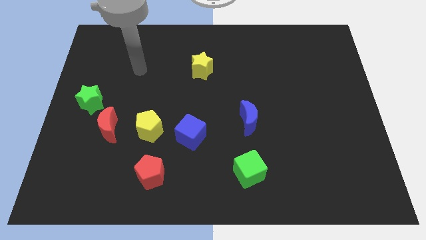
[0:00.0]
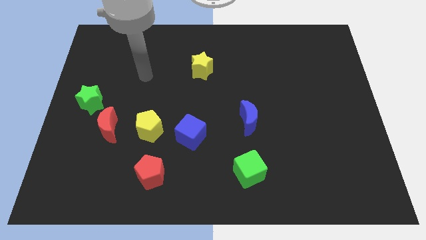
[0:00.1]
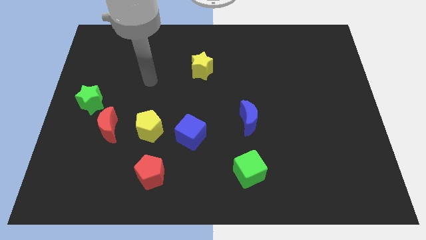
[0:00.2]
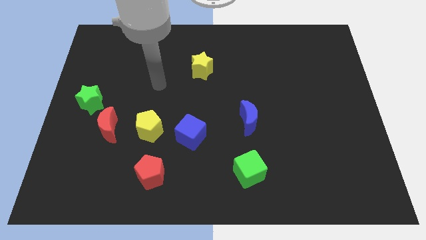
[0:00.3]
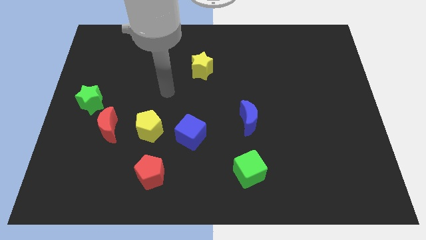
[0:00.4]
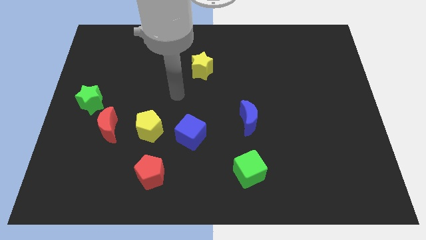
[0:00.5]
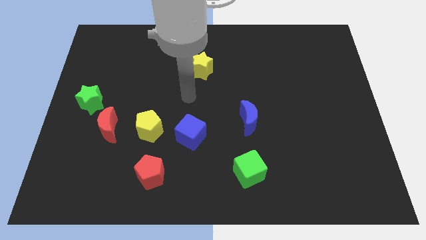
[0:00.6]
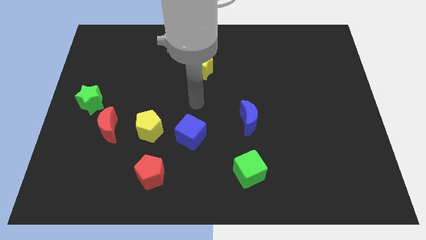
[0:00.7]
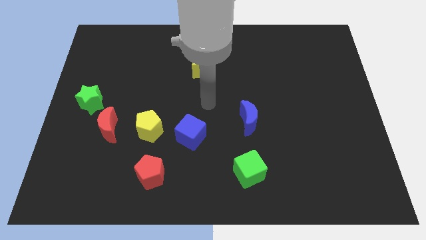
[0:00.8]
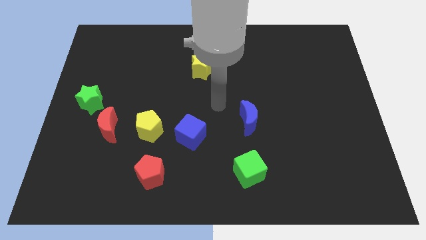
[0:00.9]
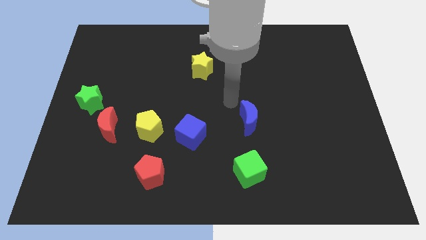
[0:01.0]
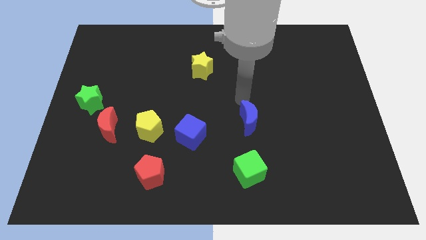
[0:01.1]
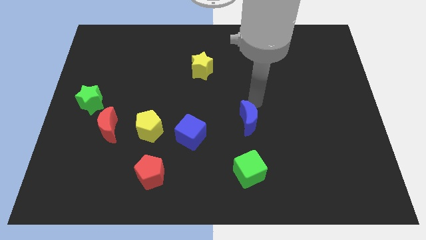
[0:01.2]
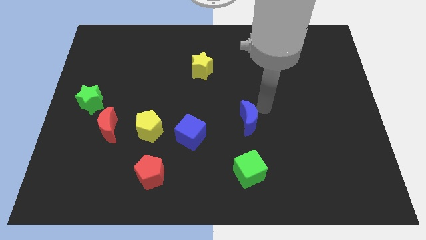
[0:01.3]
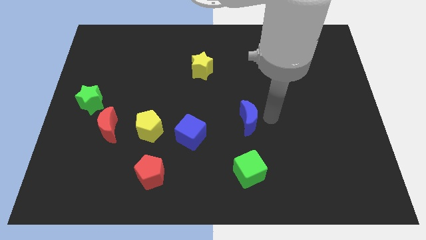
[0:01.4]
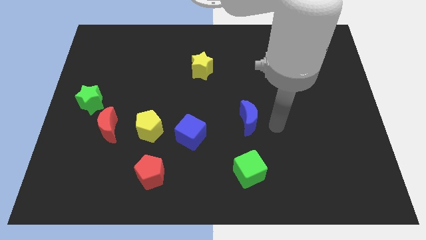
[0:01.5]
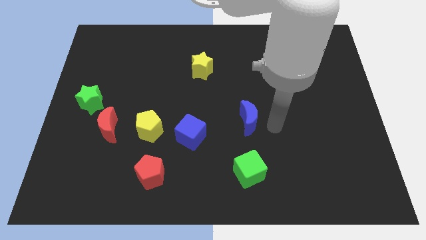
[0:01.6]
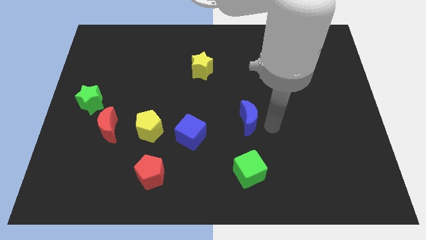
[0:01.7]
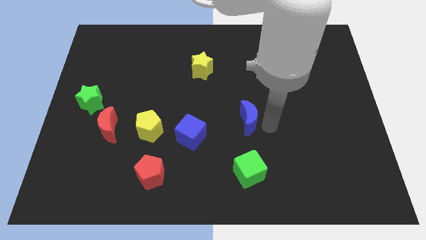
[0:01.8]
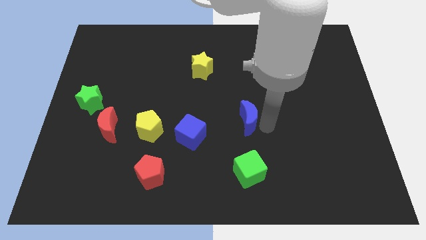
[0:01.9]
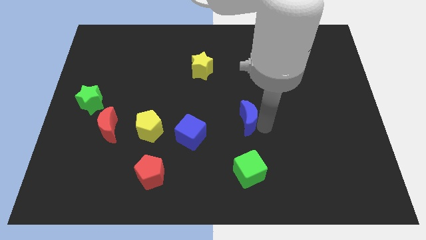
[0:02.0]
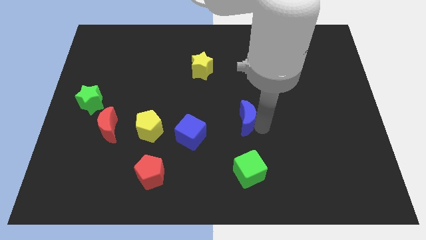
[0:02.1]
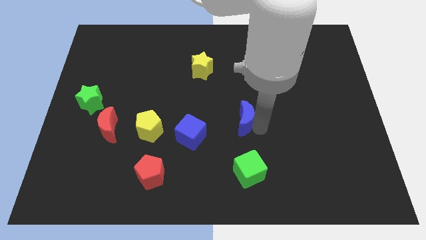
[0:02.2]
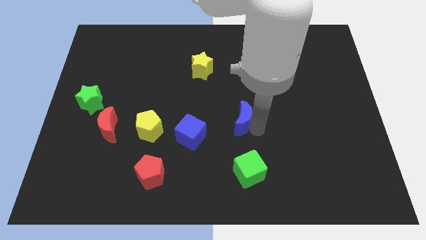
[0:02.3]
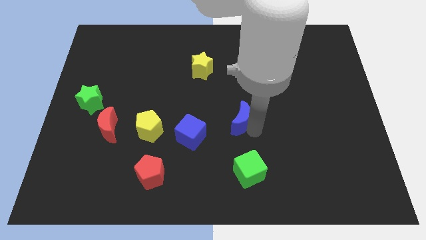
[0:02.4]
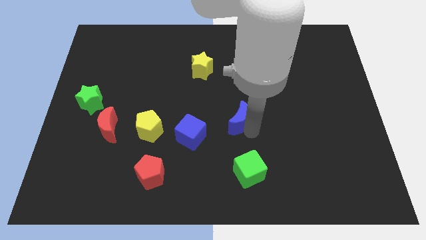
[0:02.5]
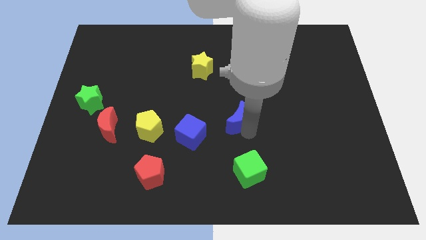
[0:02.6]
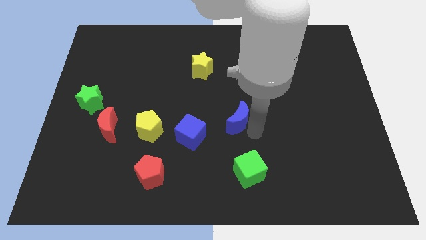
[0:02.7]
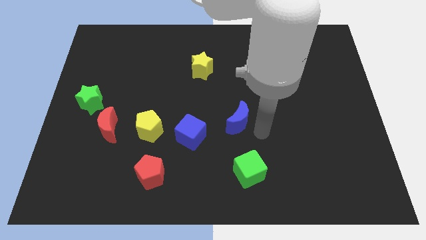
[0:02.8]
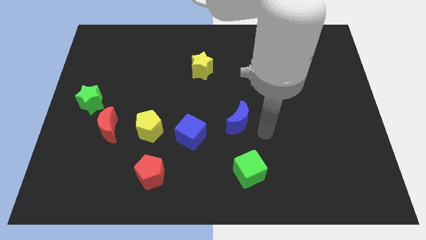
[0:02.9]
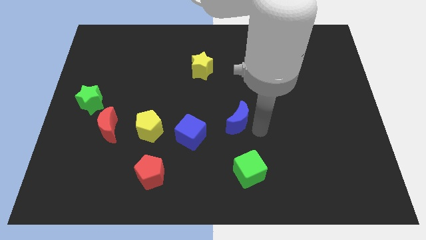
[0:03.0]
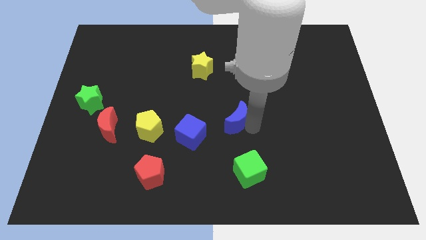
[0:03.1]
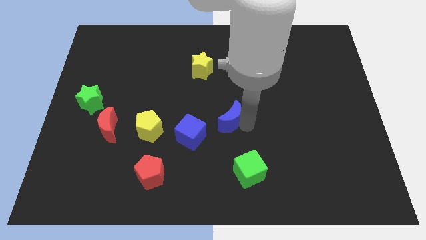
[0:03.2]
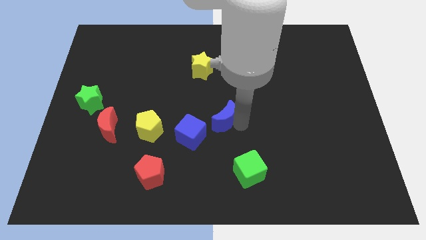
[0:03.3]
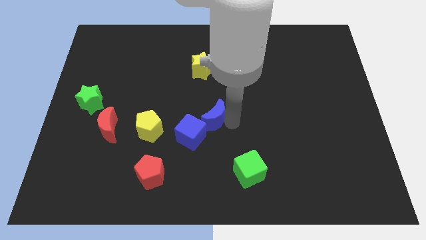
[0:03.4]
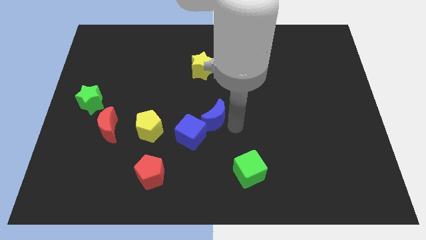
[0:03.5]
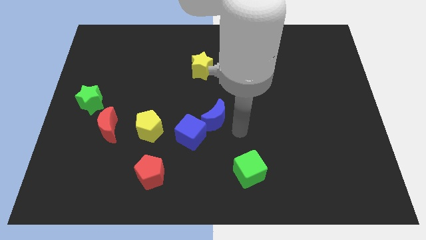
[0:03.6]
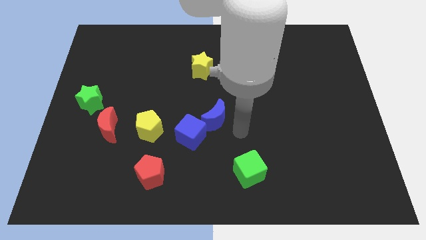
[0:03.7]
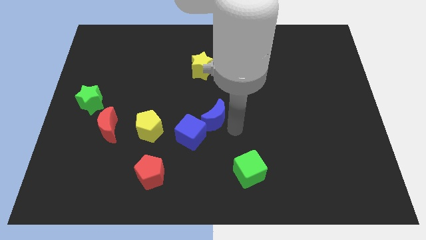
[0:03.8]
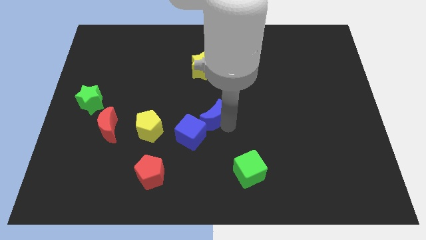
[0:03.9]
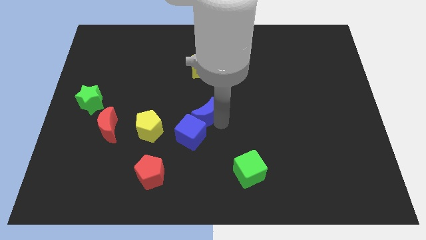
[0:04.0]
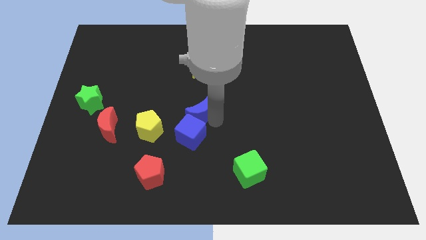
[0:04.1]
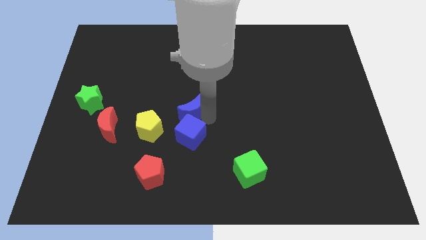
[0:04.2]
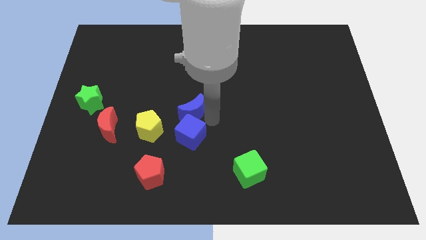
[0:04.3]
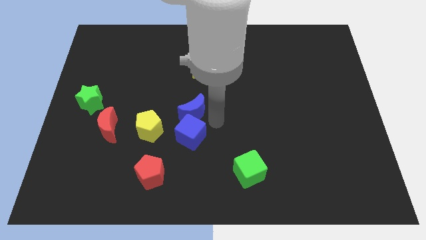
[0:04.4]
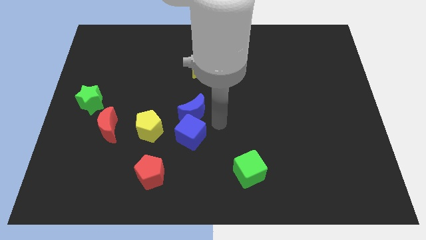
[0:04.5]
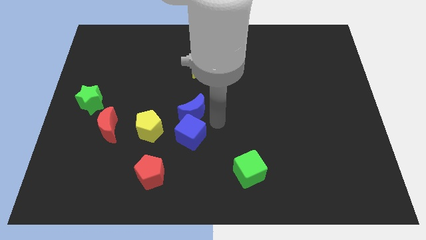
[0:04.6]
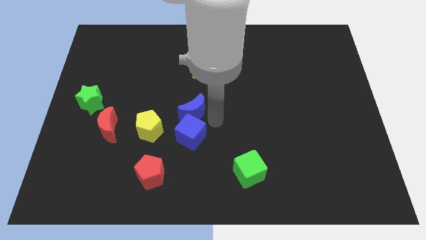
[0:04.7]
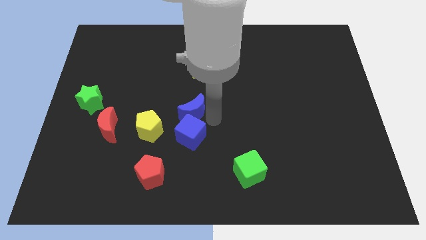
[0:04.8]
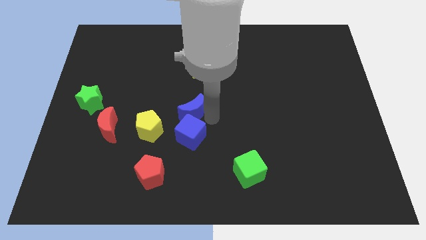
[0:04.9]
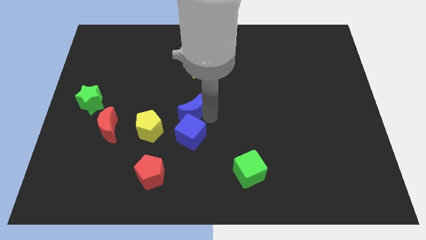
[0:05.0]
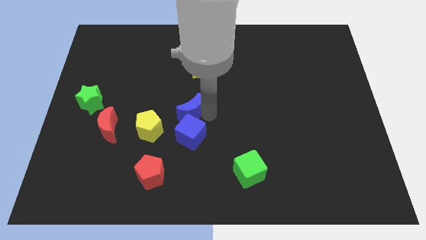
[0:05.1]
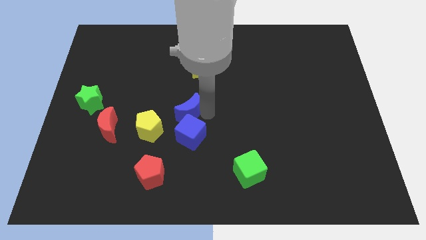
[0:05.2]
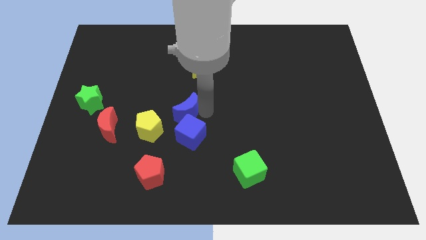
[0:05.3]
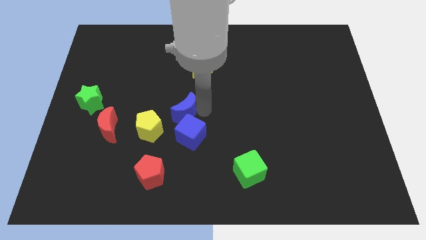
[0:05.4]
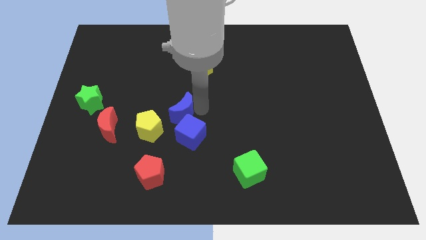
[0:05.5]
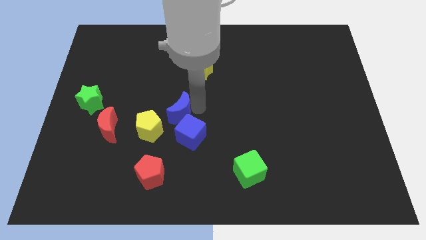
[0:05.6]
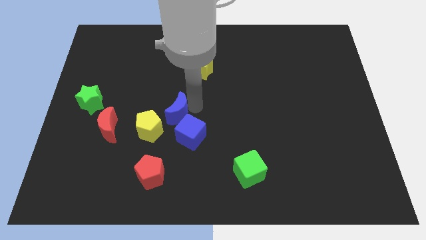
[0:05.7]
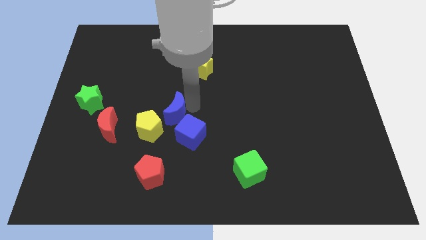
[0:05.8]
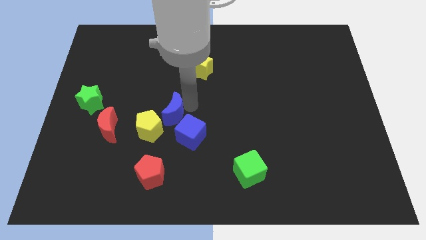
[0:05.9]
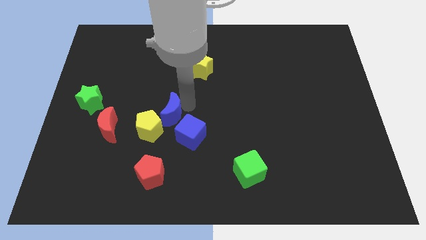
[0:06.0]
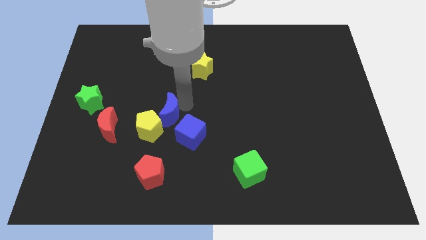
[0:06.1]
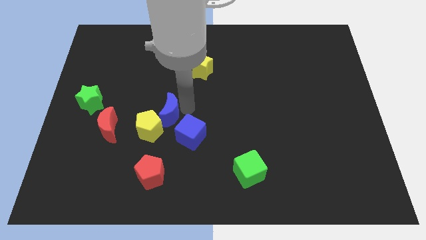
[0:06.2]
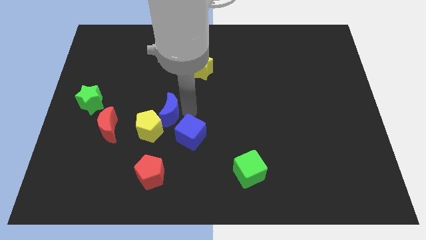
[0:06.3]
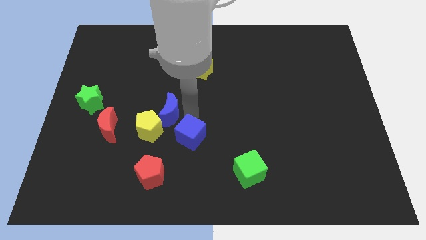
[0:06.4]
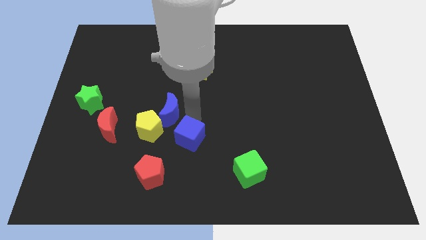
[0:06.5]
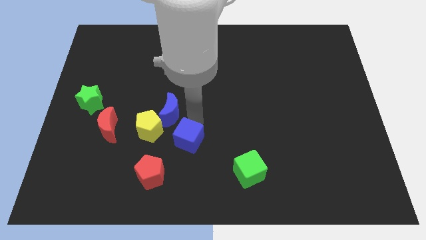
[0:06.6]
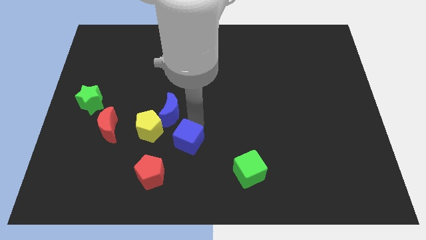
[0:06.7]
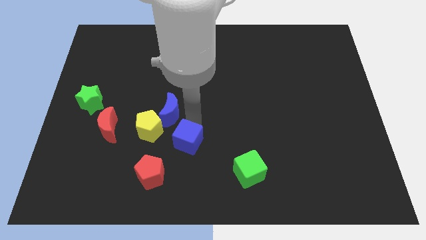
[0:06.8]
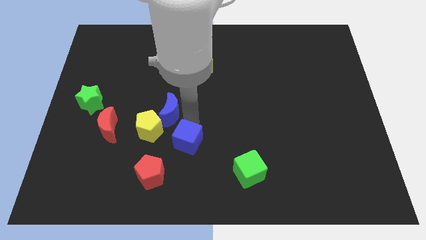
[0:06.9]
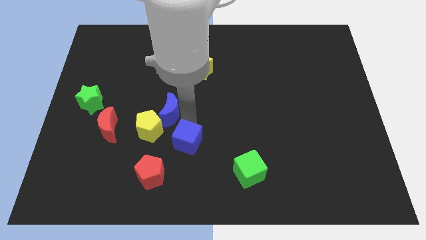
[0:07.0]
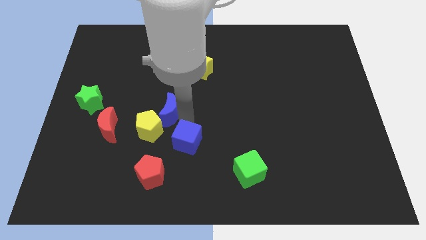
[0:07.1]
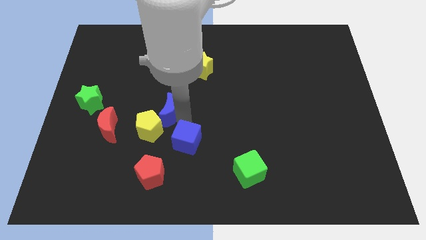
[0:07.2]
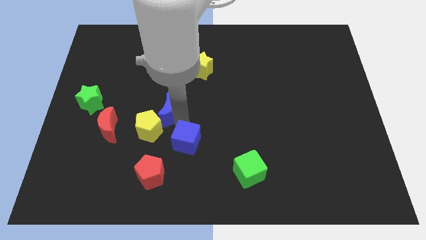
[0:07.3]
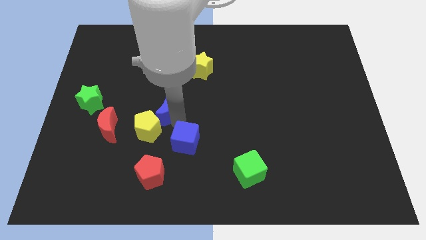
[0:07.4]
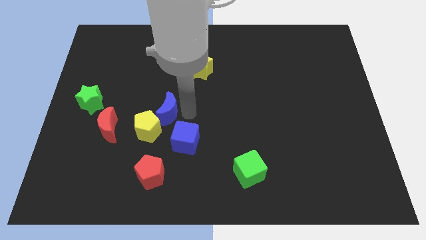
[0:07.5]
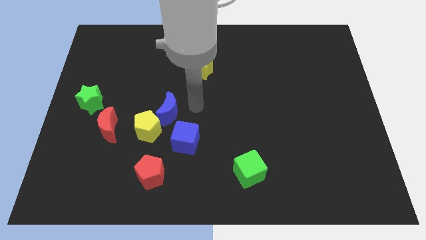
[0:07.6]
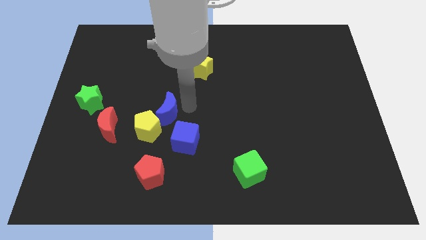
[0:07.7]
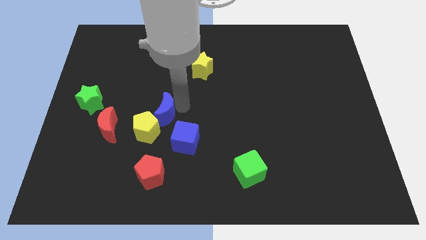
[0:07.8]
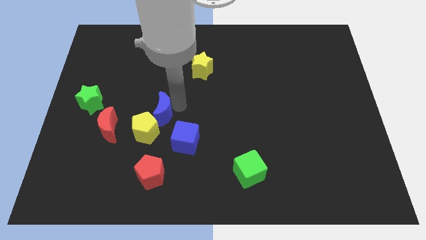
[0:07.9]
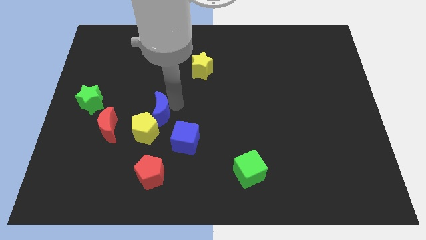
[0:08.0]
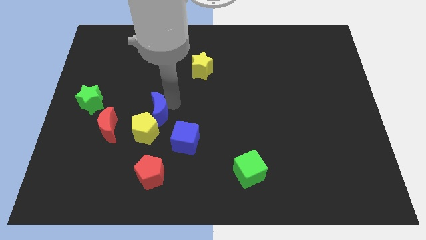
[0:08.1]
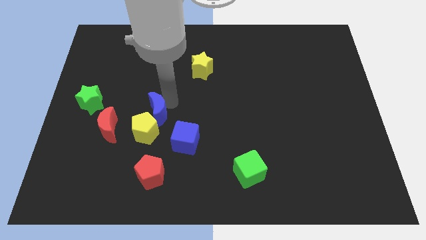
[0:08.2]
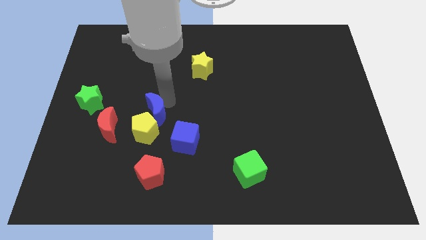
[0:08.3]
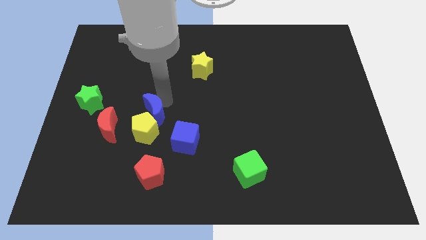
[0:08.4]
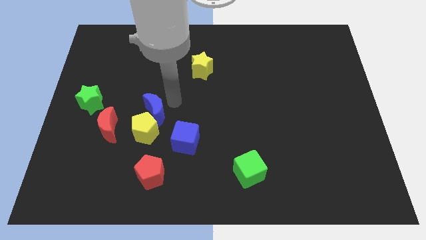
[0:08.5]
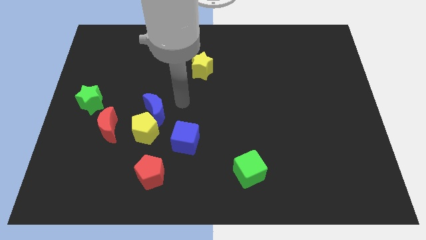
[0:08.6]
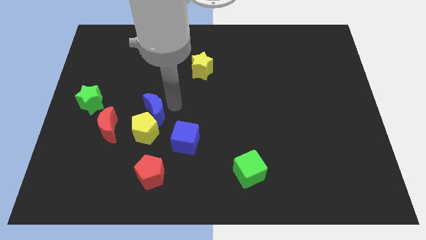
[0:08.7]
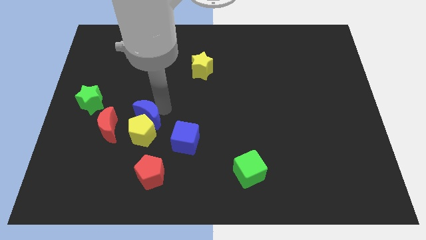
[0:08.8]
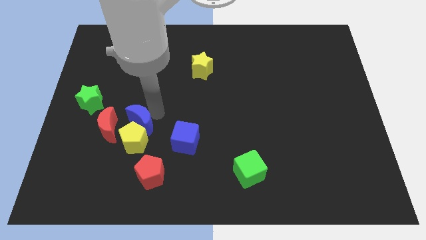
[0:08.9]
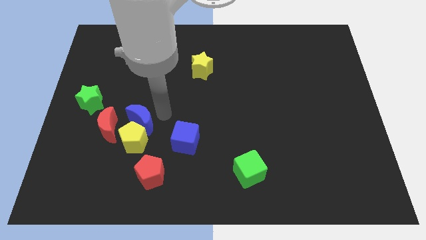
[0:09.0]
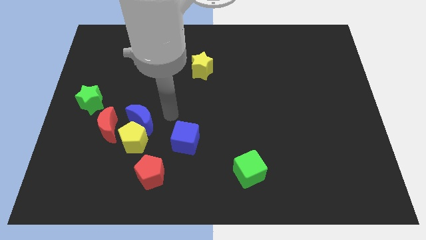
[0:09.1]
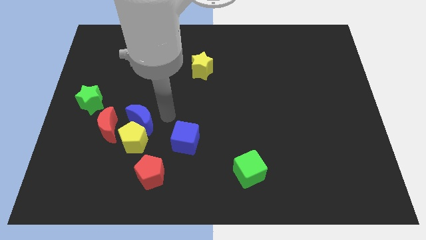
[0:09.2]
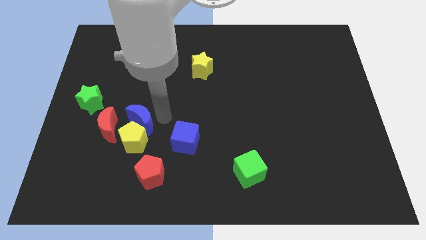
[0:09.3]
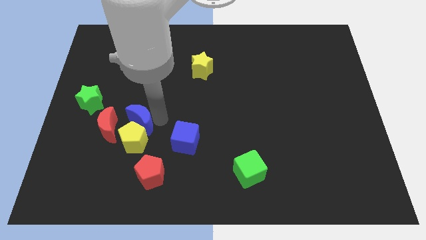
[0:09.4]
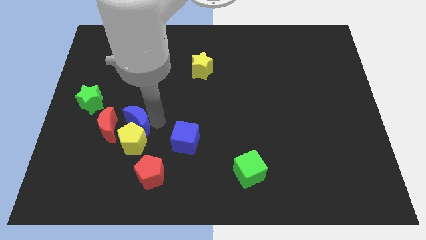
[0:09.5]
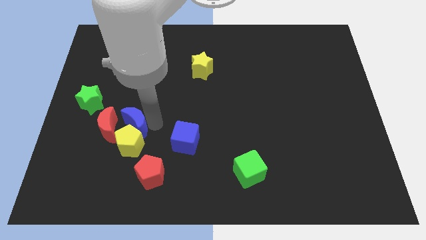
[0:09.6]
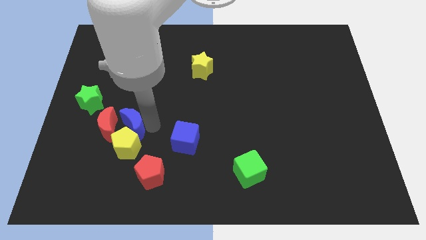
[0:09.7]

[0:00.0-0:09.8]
push the blue moon to the red moon
